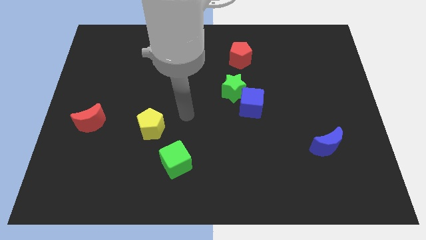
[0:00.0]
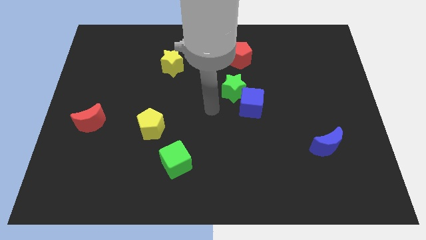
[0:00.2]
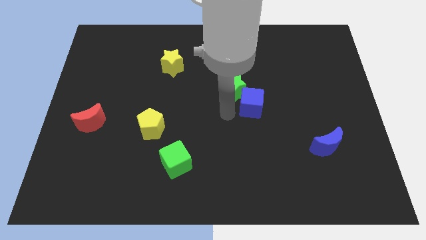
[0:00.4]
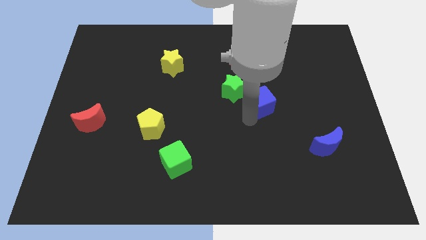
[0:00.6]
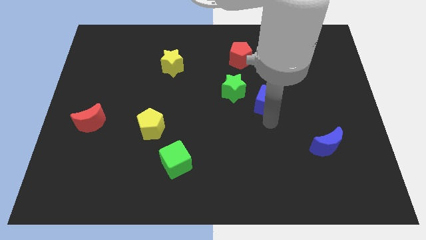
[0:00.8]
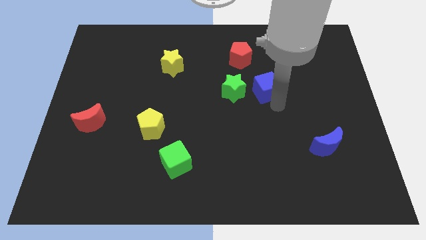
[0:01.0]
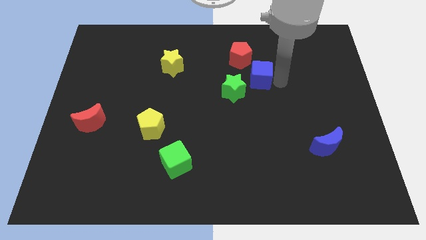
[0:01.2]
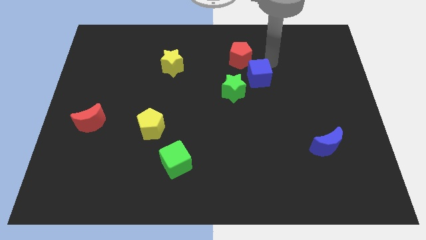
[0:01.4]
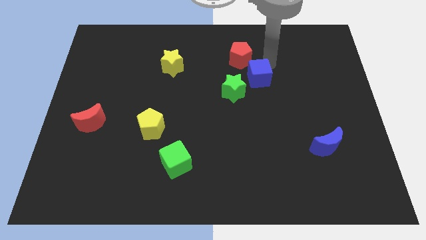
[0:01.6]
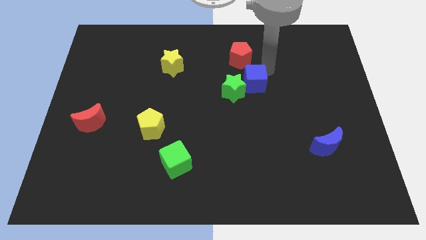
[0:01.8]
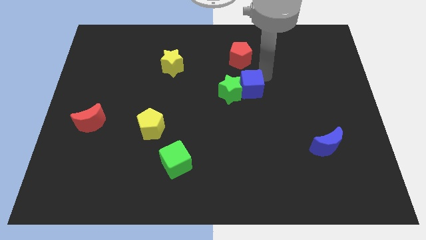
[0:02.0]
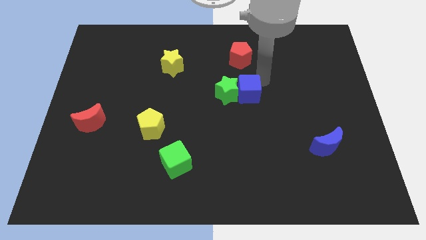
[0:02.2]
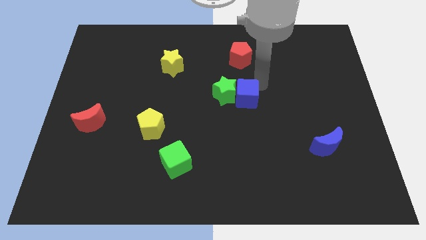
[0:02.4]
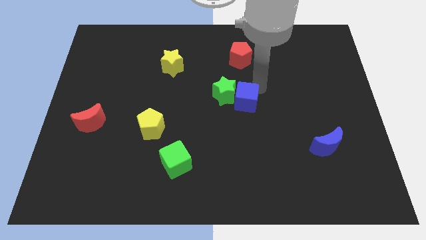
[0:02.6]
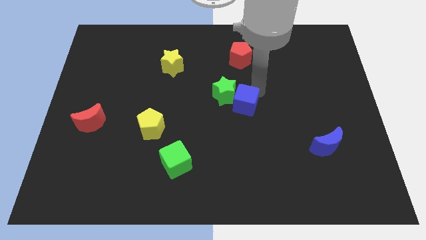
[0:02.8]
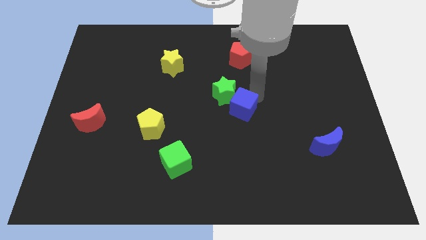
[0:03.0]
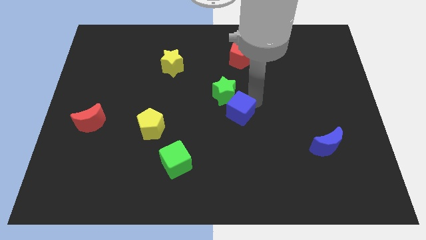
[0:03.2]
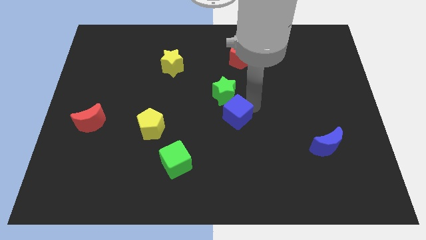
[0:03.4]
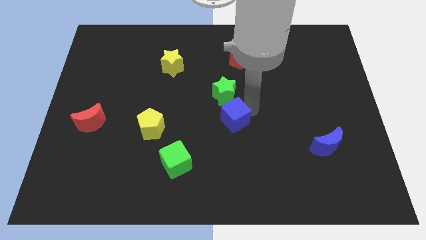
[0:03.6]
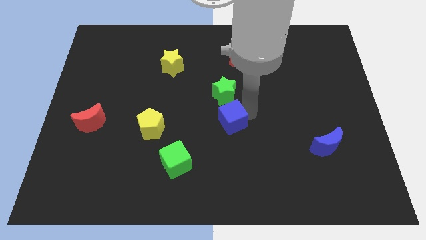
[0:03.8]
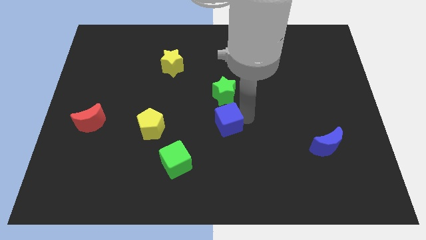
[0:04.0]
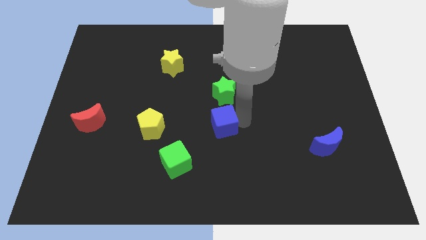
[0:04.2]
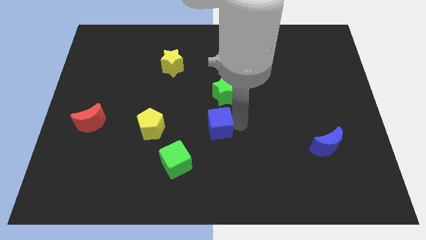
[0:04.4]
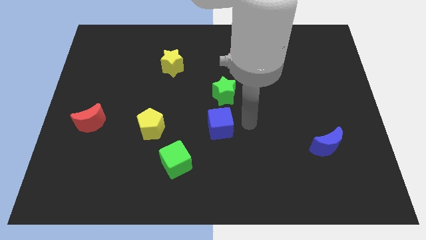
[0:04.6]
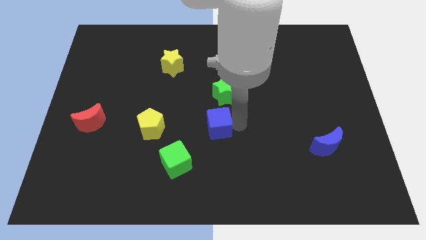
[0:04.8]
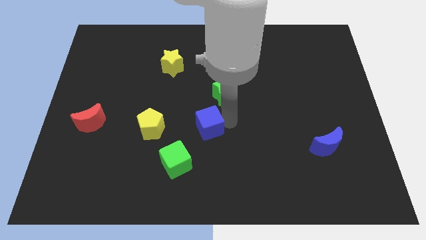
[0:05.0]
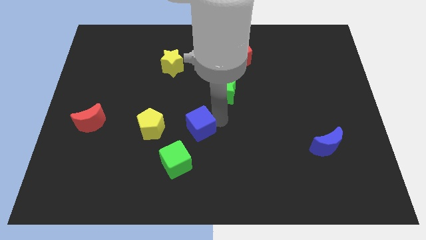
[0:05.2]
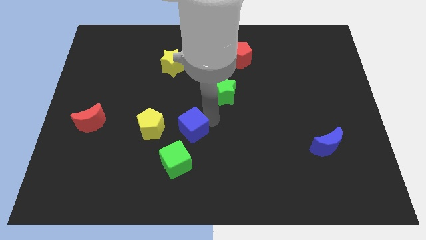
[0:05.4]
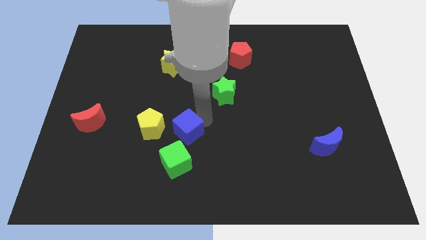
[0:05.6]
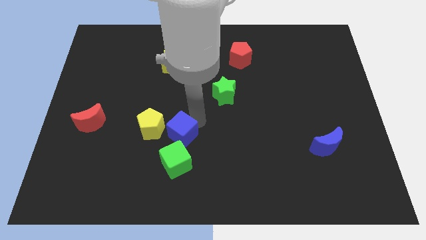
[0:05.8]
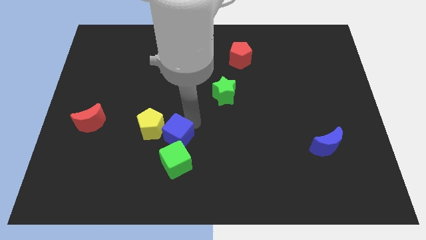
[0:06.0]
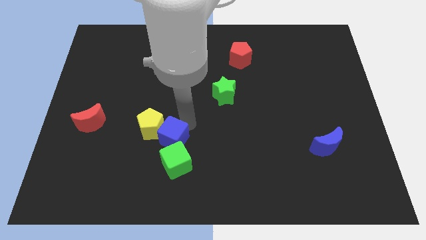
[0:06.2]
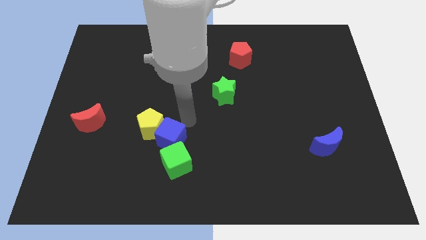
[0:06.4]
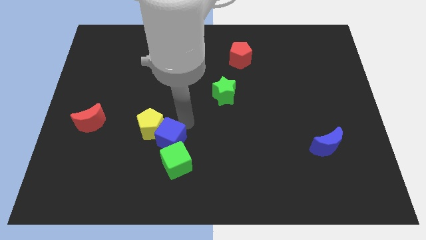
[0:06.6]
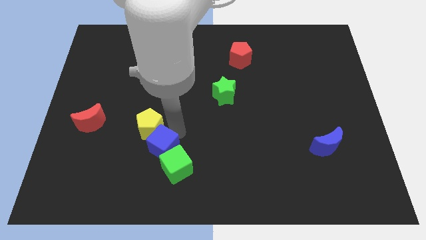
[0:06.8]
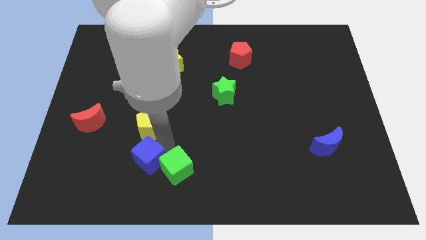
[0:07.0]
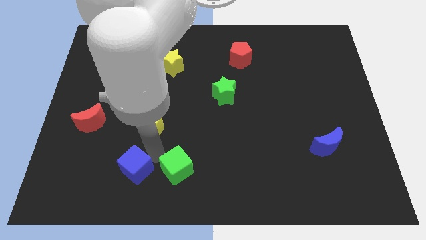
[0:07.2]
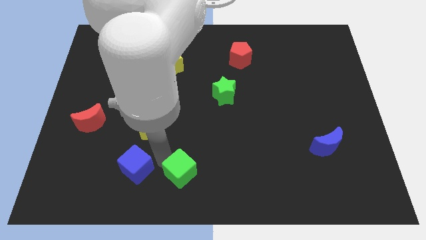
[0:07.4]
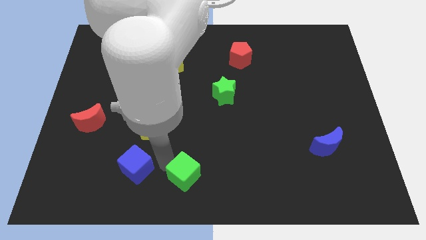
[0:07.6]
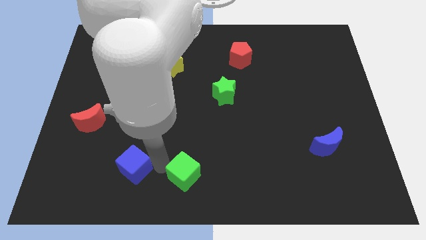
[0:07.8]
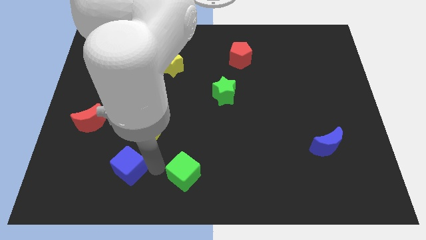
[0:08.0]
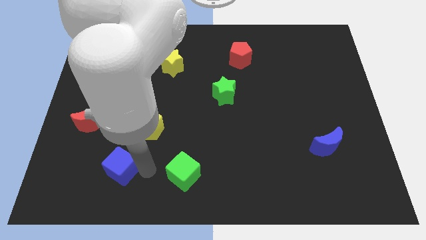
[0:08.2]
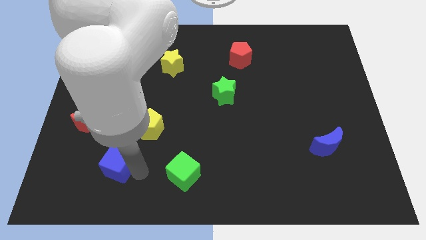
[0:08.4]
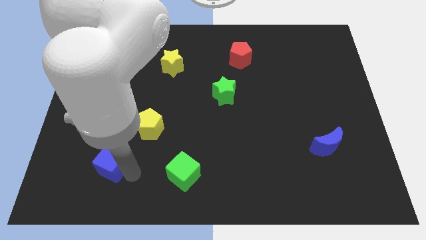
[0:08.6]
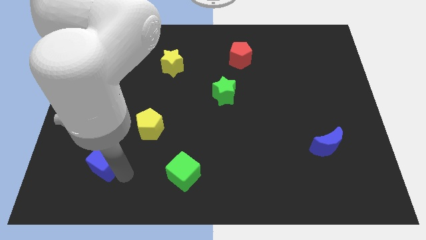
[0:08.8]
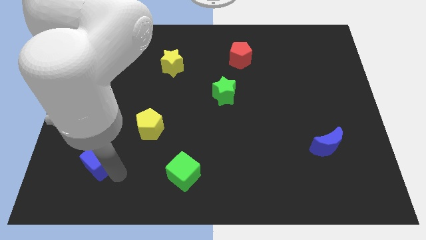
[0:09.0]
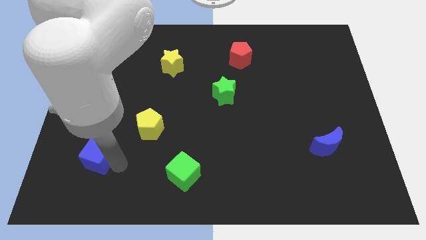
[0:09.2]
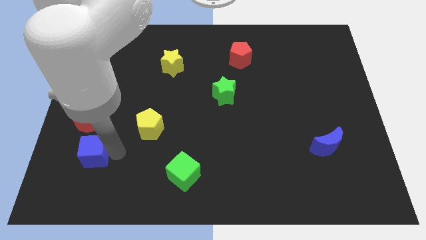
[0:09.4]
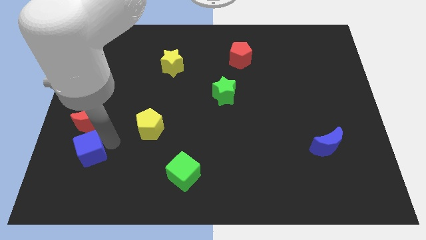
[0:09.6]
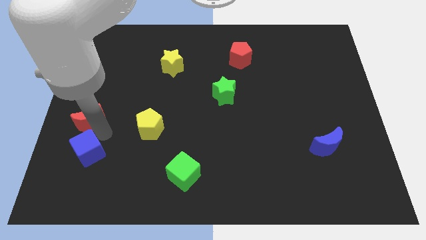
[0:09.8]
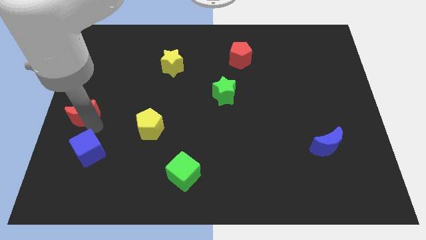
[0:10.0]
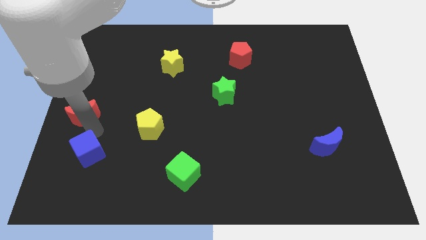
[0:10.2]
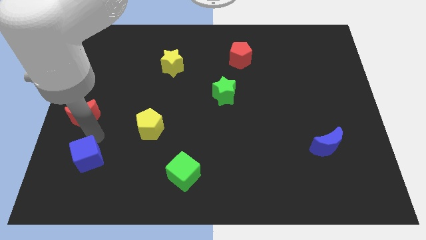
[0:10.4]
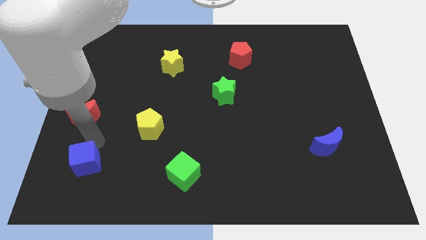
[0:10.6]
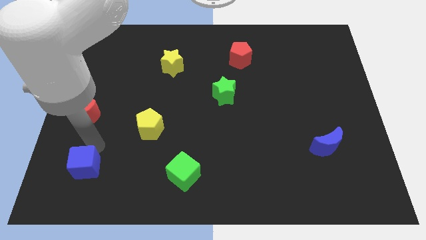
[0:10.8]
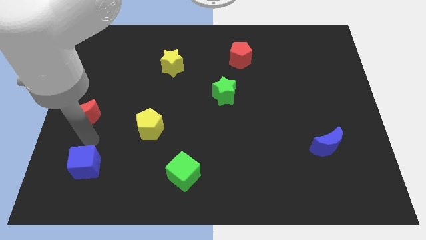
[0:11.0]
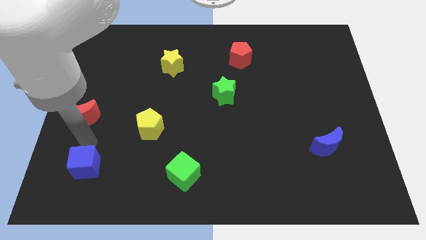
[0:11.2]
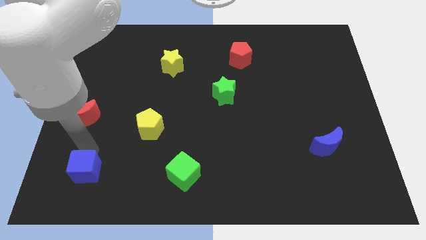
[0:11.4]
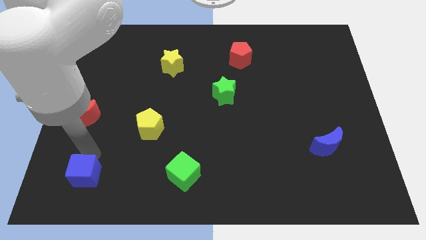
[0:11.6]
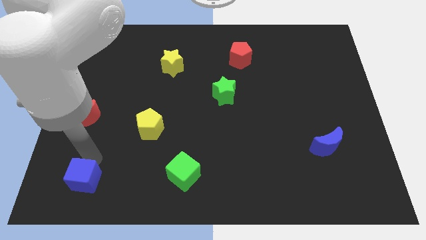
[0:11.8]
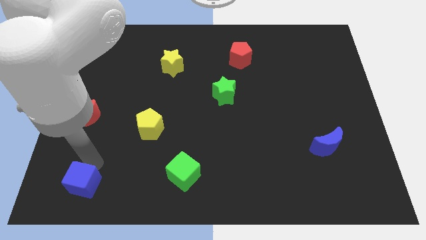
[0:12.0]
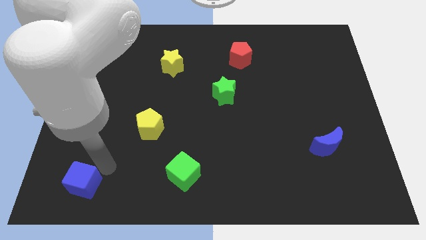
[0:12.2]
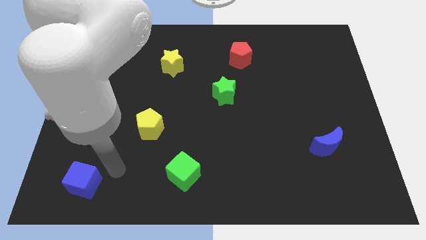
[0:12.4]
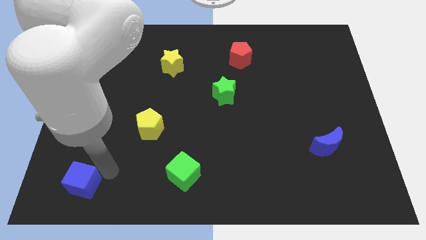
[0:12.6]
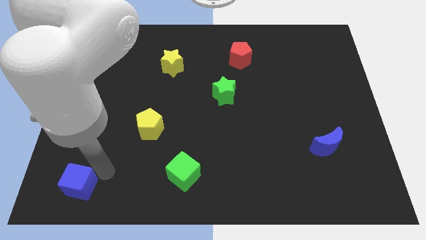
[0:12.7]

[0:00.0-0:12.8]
push the blue cube to the bottom left
